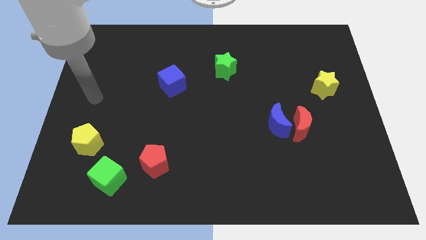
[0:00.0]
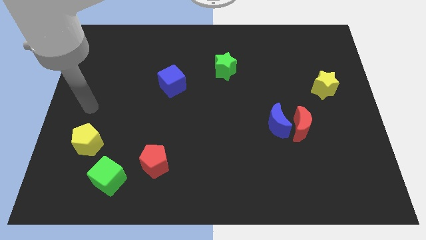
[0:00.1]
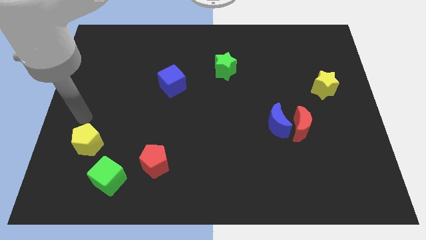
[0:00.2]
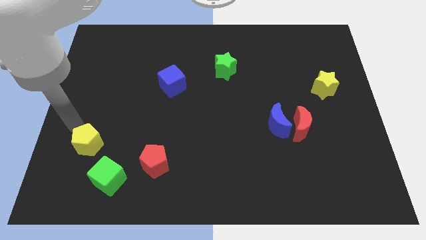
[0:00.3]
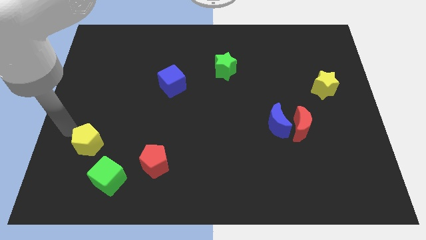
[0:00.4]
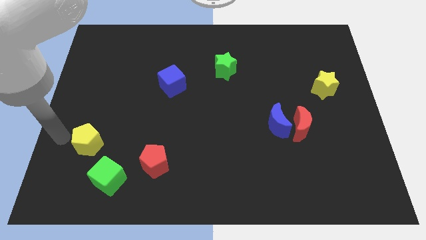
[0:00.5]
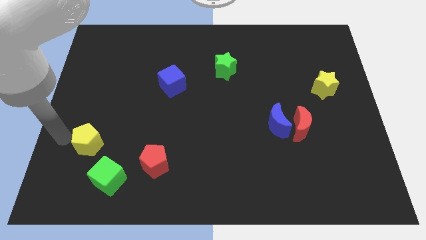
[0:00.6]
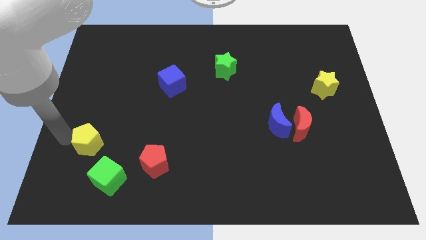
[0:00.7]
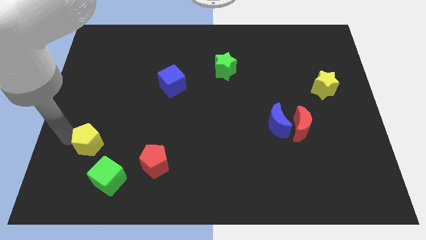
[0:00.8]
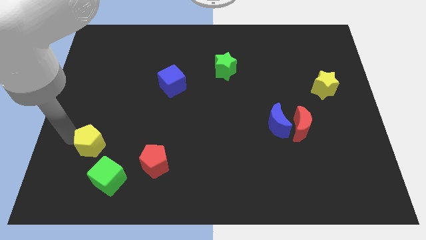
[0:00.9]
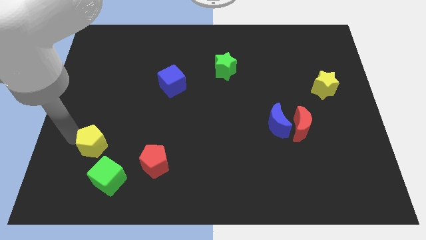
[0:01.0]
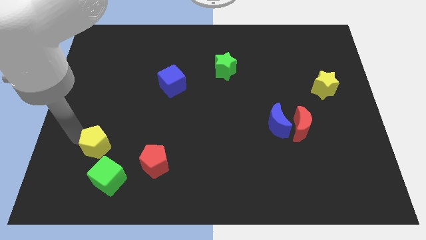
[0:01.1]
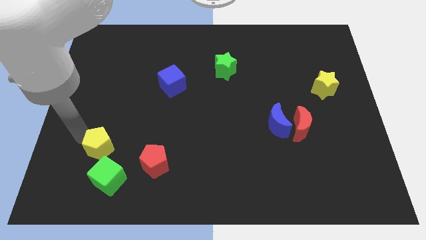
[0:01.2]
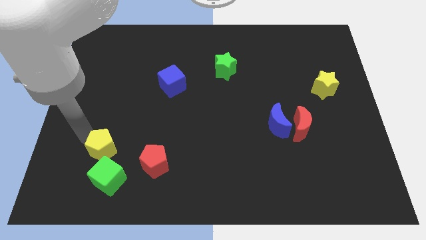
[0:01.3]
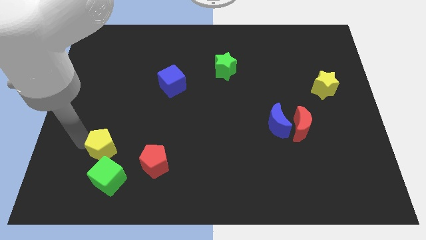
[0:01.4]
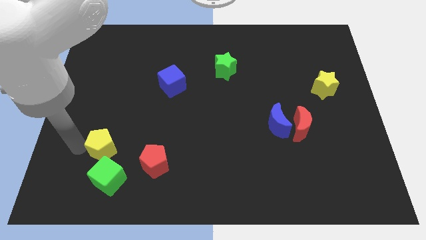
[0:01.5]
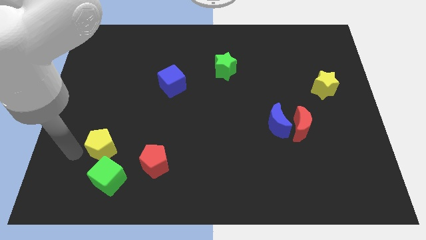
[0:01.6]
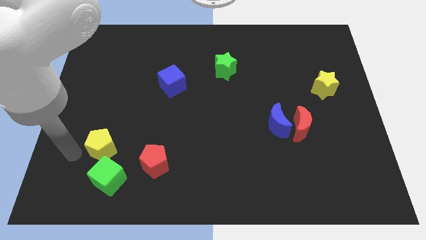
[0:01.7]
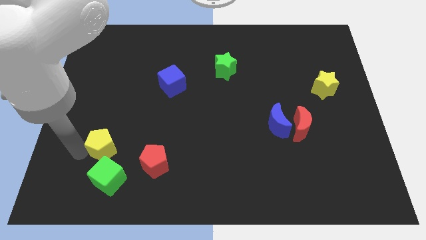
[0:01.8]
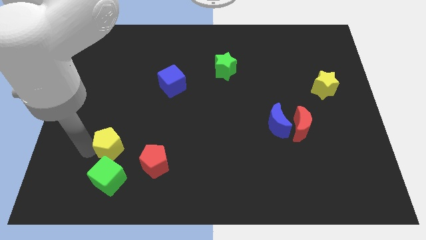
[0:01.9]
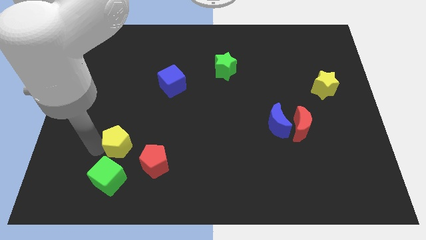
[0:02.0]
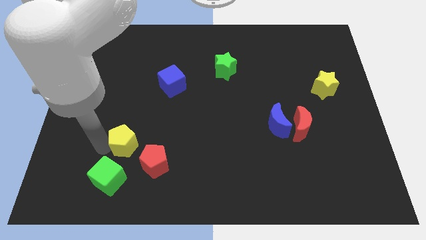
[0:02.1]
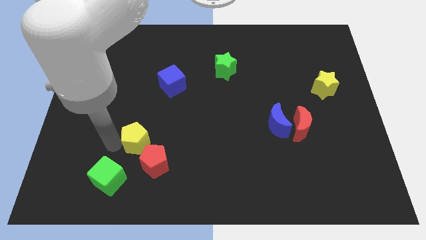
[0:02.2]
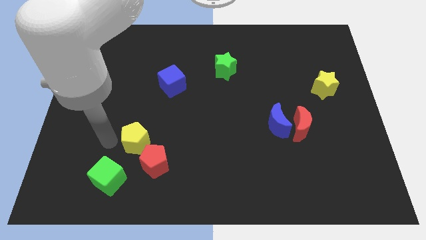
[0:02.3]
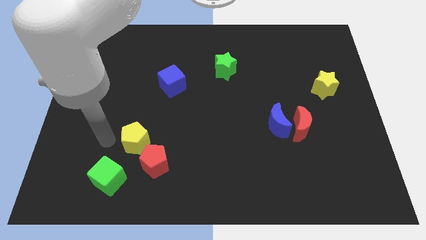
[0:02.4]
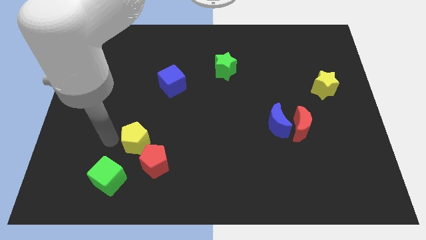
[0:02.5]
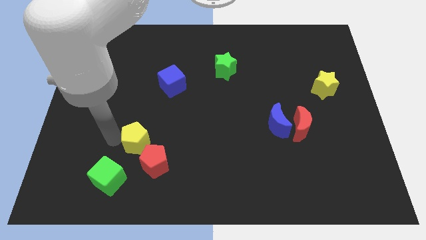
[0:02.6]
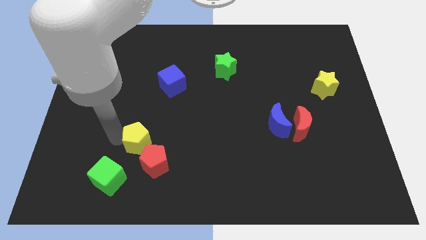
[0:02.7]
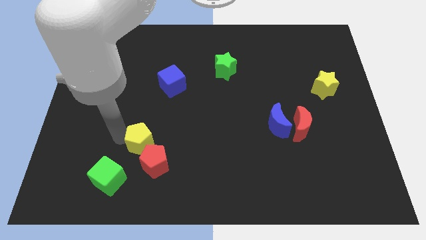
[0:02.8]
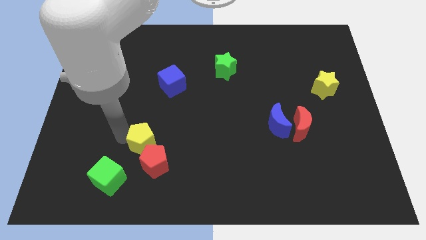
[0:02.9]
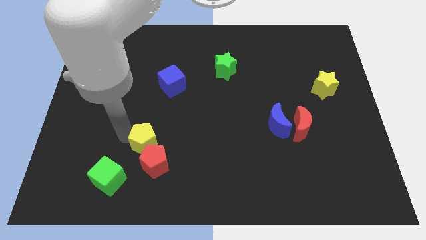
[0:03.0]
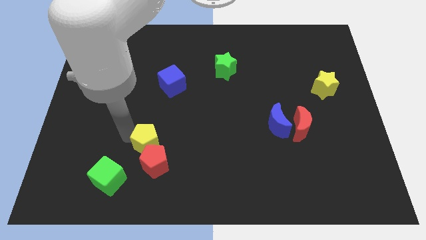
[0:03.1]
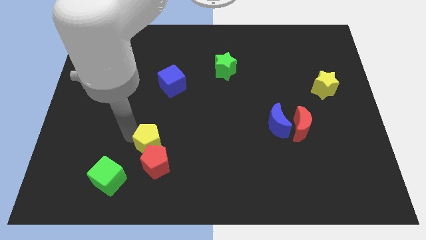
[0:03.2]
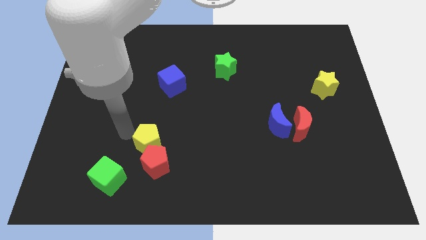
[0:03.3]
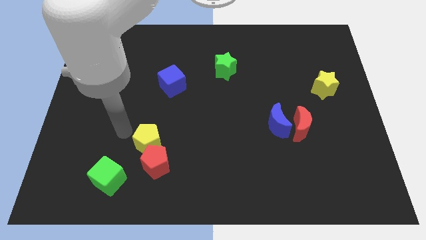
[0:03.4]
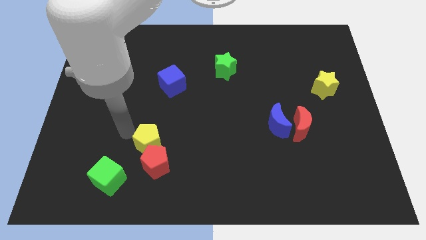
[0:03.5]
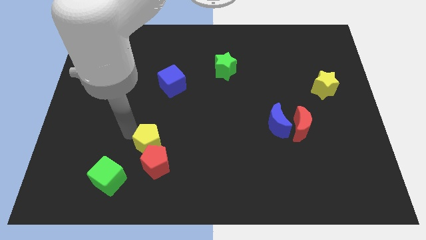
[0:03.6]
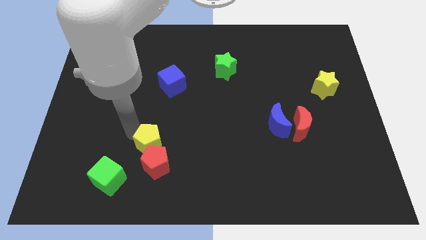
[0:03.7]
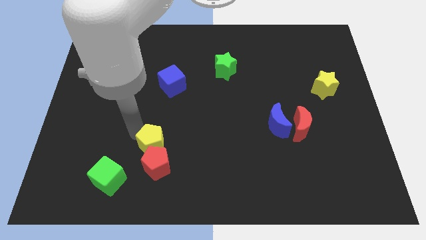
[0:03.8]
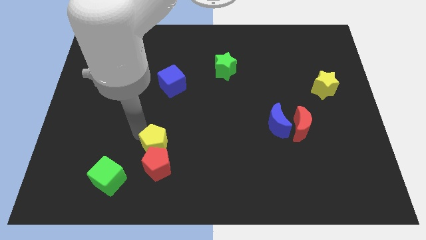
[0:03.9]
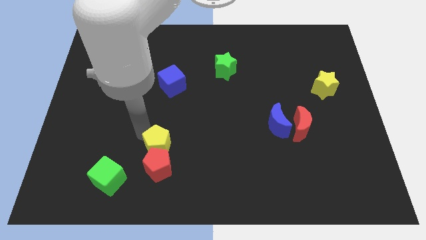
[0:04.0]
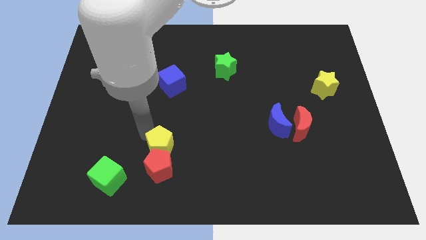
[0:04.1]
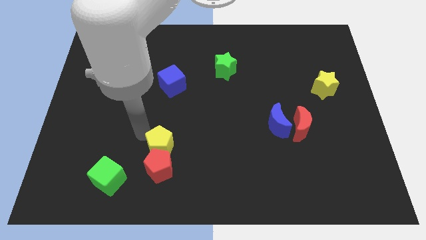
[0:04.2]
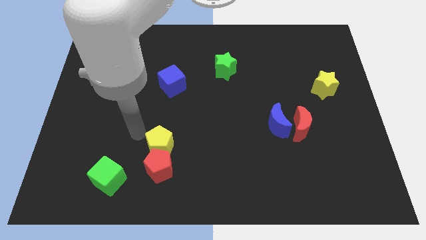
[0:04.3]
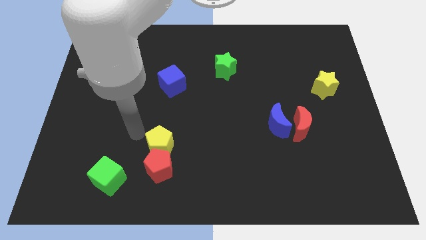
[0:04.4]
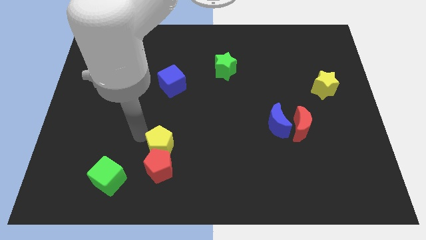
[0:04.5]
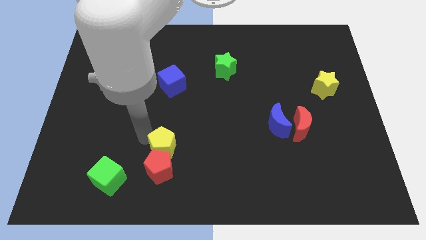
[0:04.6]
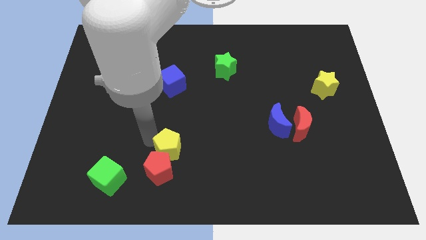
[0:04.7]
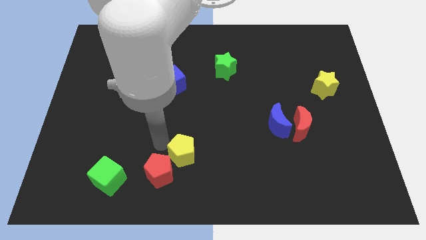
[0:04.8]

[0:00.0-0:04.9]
push the yellow pentagon to the right of the red pentagon

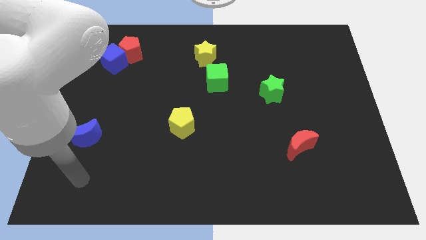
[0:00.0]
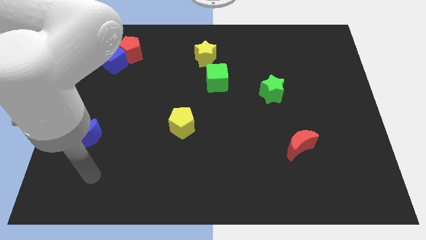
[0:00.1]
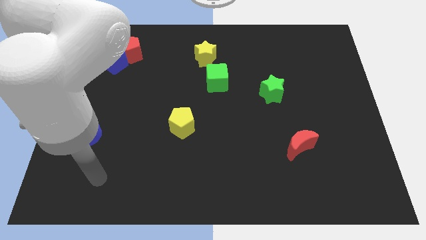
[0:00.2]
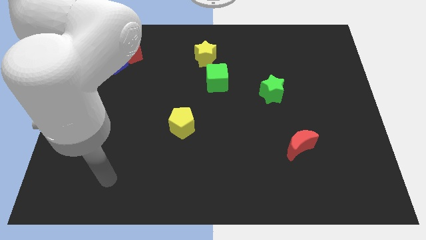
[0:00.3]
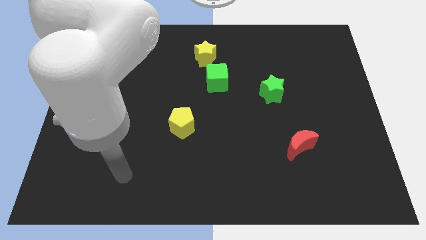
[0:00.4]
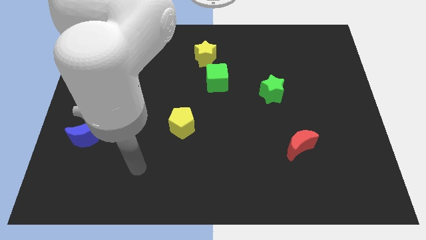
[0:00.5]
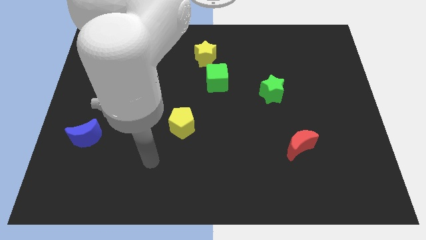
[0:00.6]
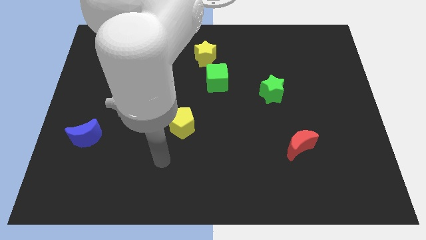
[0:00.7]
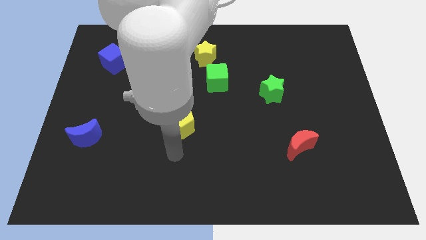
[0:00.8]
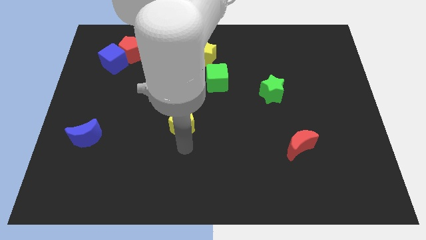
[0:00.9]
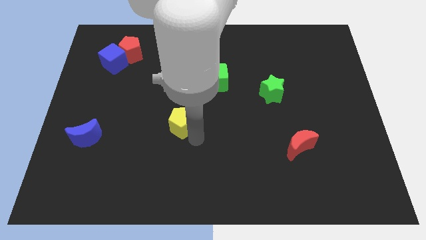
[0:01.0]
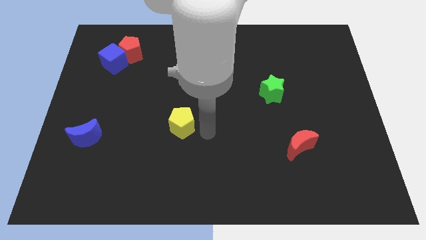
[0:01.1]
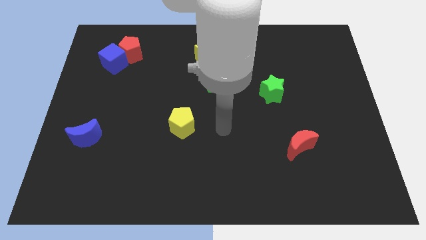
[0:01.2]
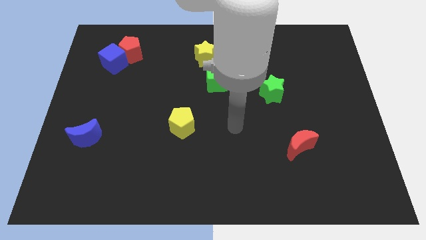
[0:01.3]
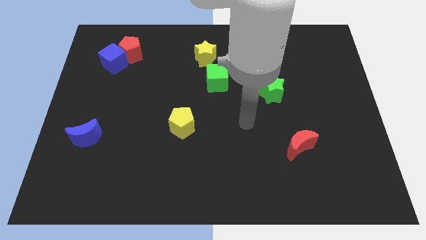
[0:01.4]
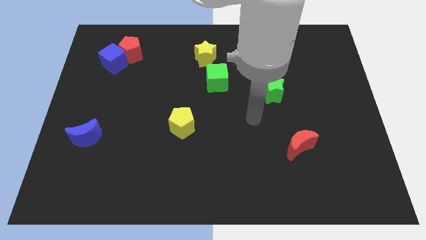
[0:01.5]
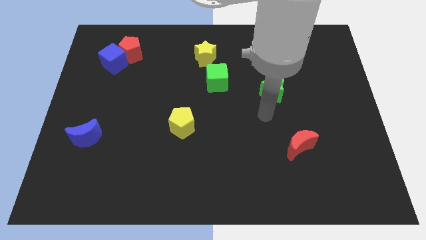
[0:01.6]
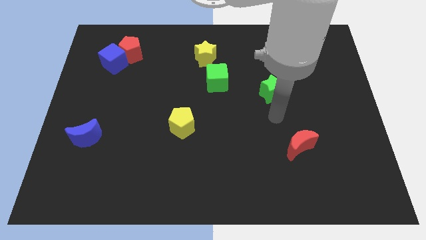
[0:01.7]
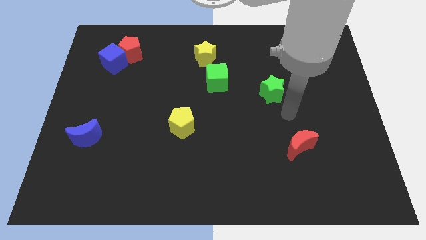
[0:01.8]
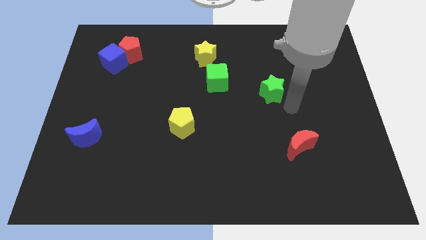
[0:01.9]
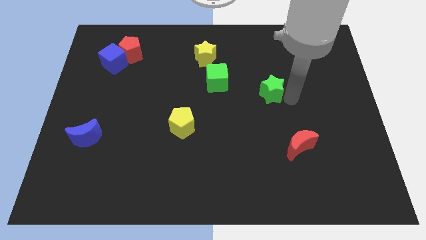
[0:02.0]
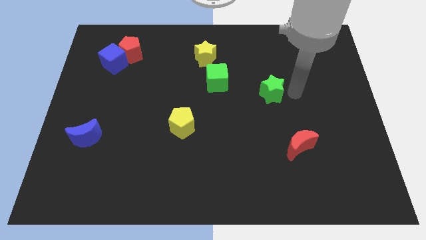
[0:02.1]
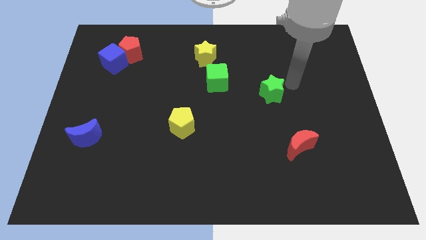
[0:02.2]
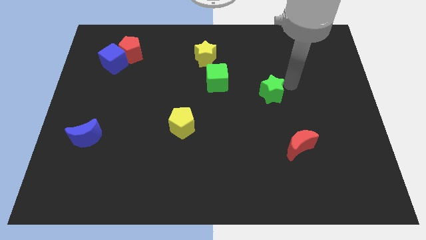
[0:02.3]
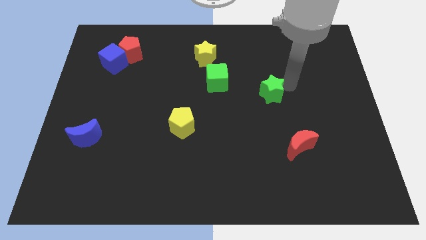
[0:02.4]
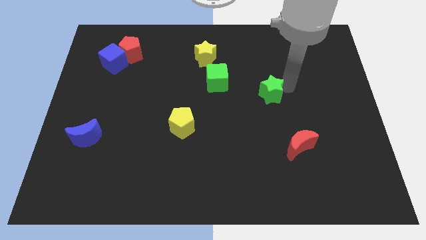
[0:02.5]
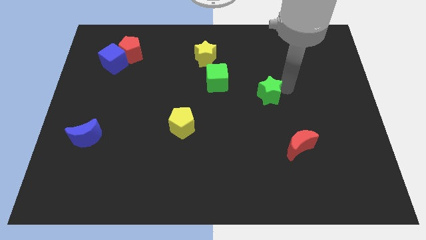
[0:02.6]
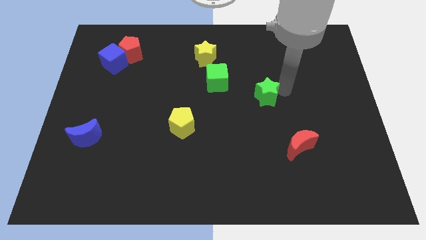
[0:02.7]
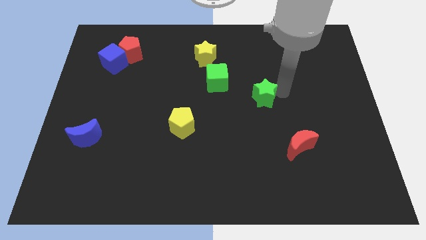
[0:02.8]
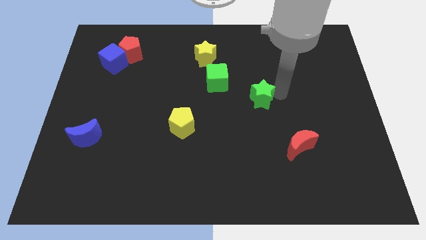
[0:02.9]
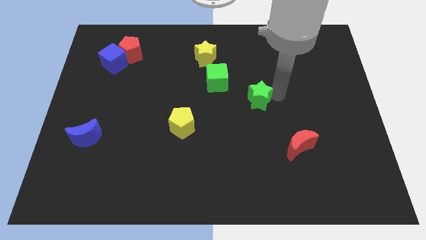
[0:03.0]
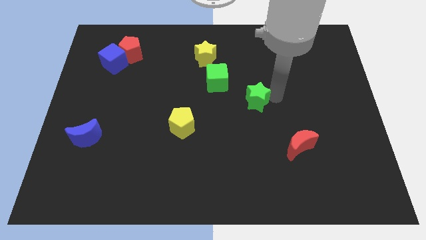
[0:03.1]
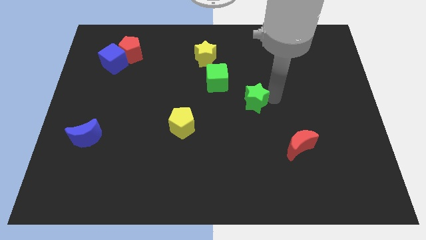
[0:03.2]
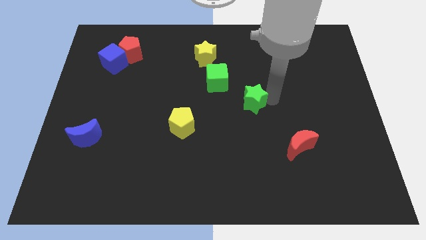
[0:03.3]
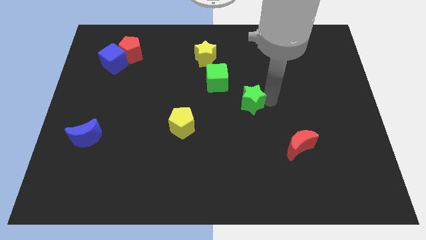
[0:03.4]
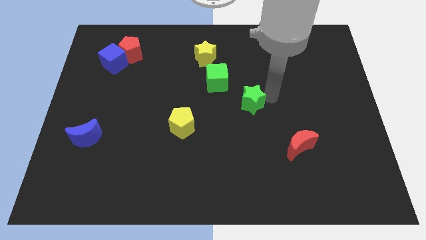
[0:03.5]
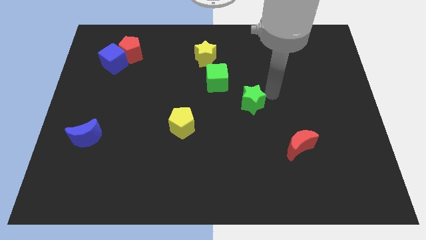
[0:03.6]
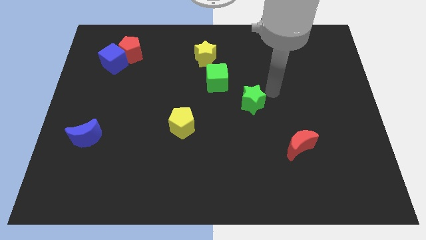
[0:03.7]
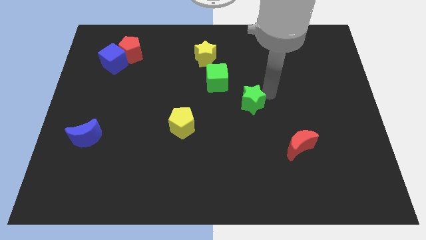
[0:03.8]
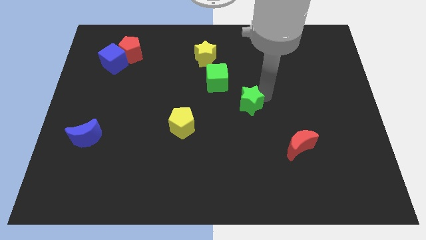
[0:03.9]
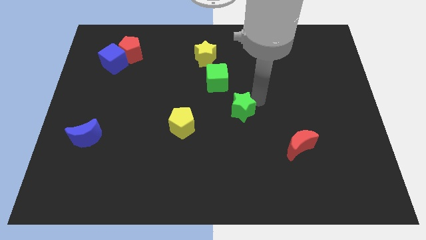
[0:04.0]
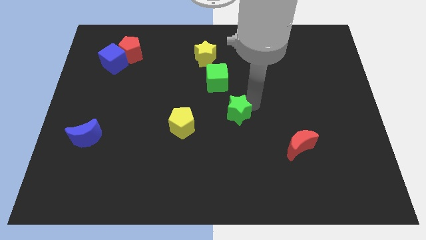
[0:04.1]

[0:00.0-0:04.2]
slide the green star to the bottom side of the green cube
